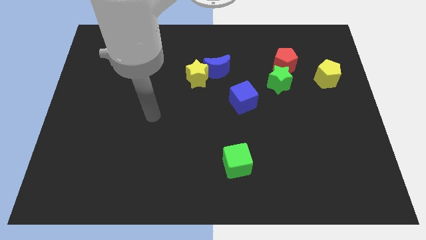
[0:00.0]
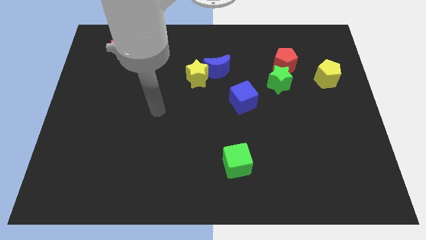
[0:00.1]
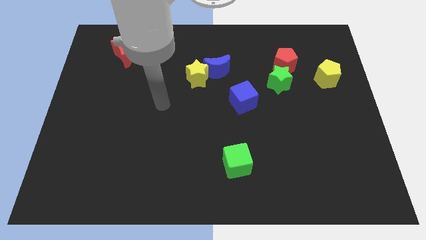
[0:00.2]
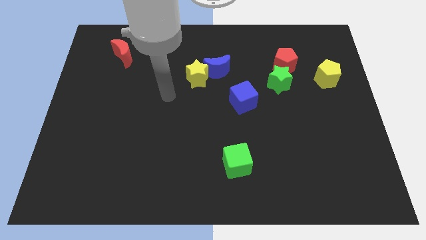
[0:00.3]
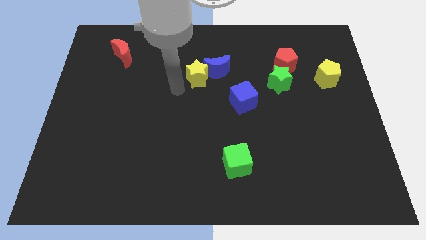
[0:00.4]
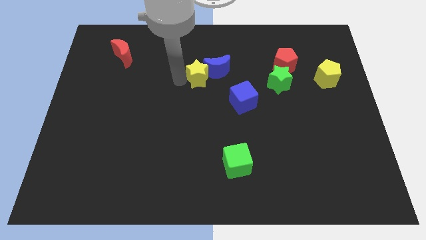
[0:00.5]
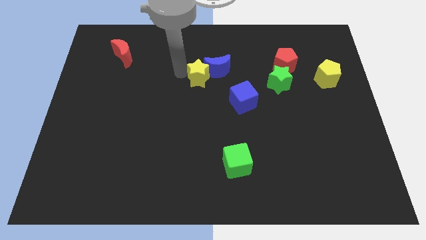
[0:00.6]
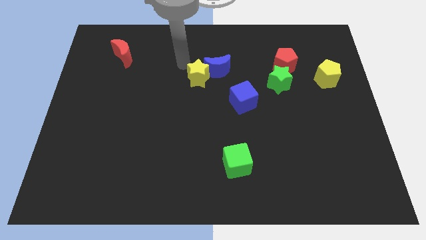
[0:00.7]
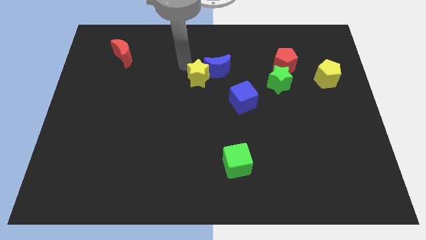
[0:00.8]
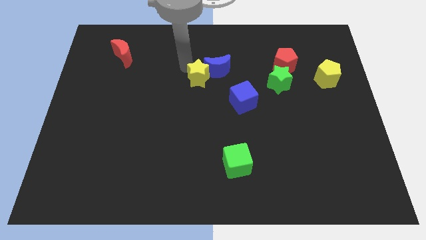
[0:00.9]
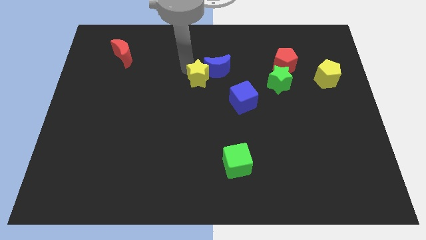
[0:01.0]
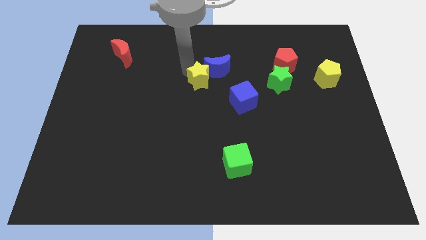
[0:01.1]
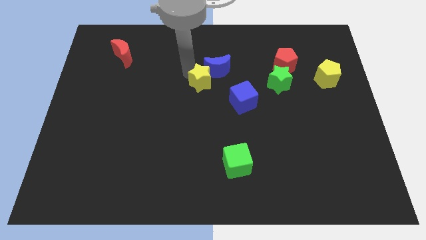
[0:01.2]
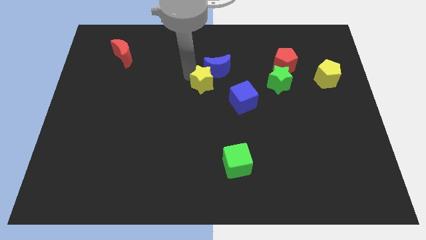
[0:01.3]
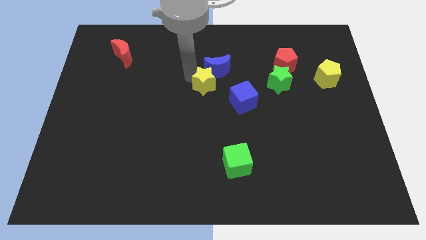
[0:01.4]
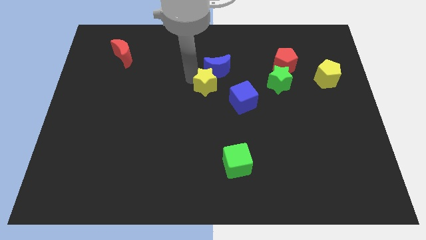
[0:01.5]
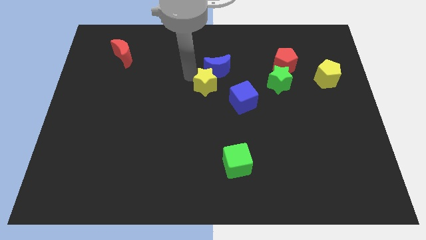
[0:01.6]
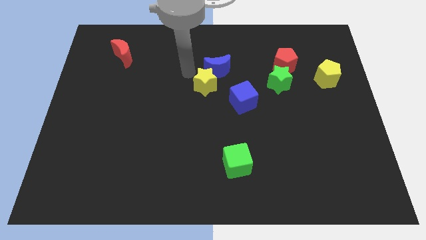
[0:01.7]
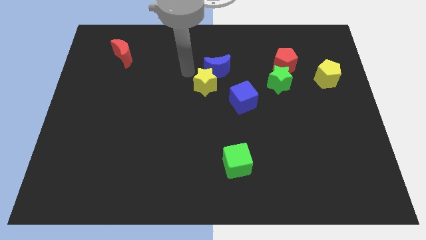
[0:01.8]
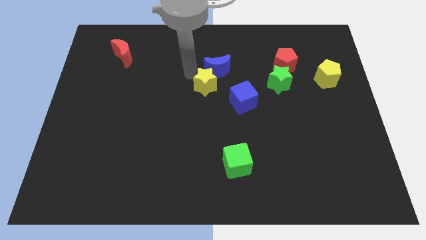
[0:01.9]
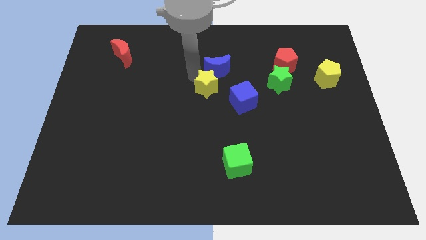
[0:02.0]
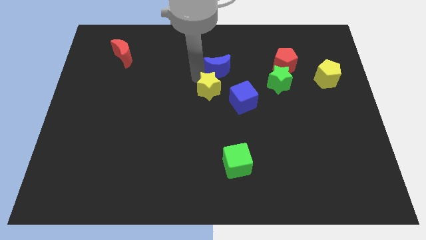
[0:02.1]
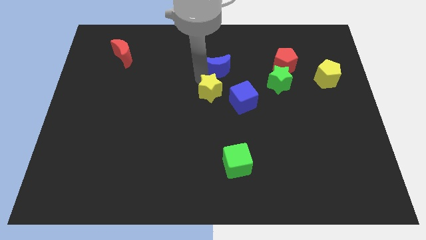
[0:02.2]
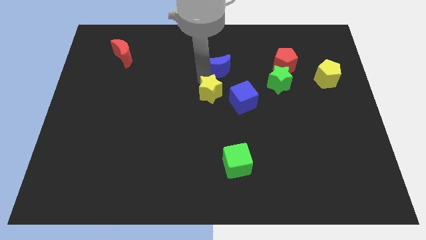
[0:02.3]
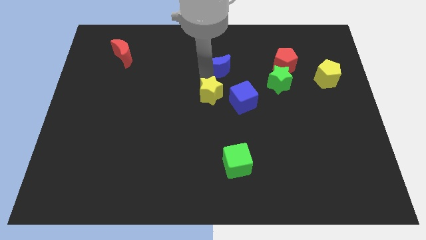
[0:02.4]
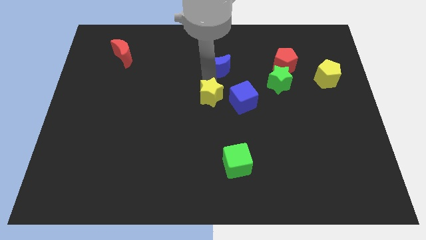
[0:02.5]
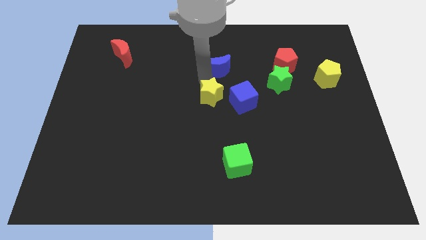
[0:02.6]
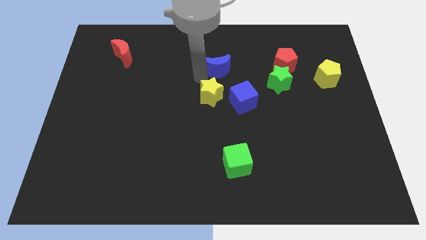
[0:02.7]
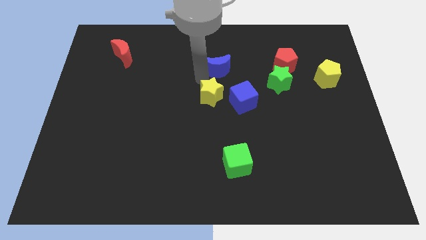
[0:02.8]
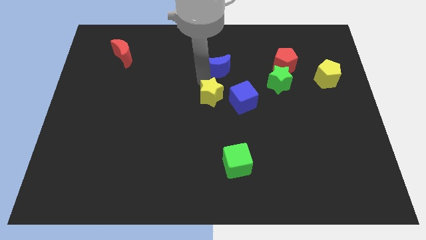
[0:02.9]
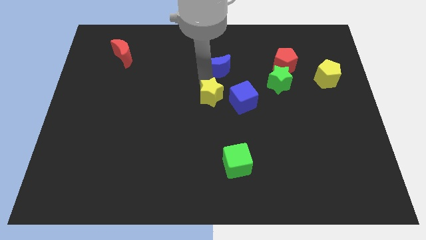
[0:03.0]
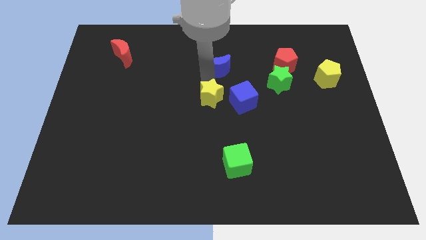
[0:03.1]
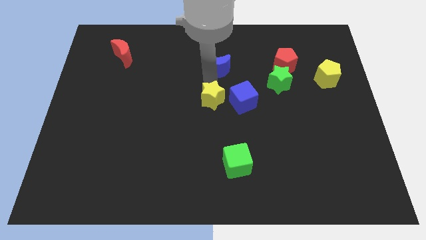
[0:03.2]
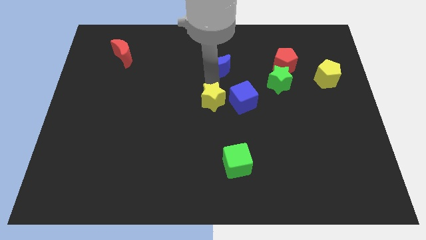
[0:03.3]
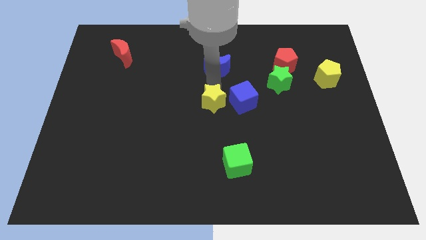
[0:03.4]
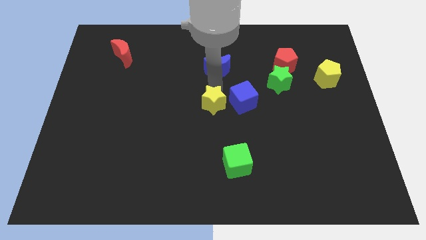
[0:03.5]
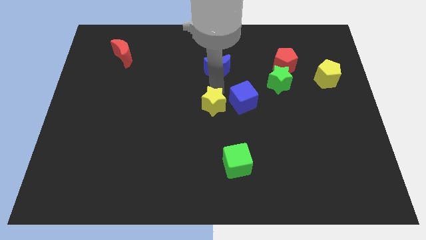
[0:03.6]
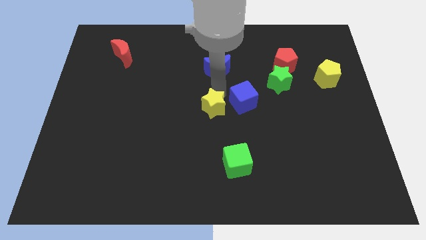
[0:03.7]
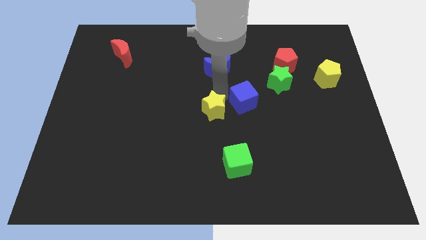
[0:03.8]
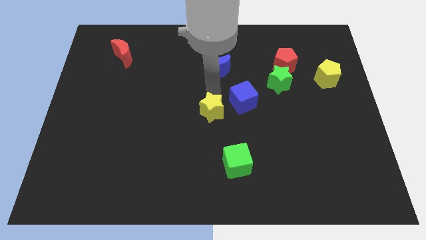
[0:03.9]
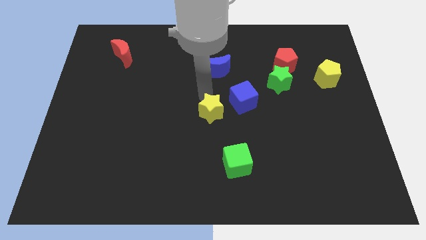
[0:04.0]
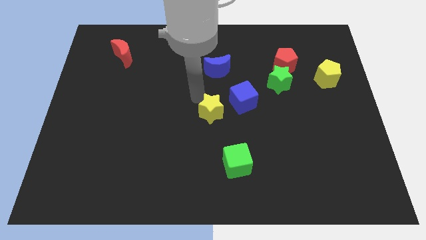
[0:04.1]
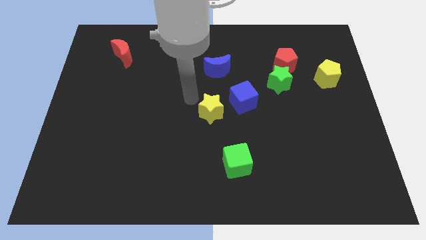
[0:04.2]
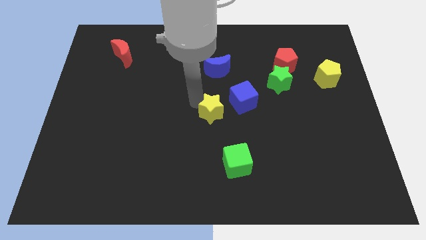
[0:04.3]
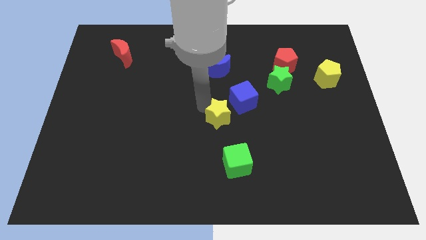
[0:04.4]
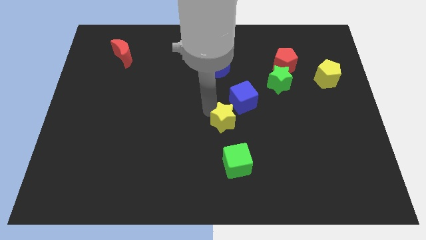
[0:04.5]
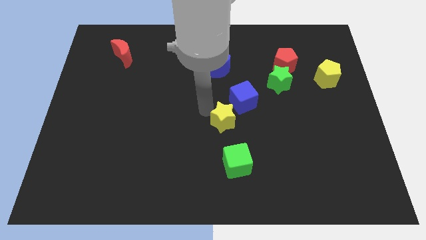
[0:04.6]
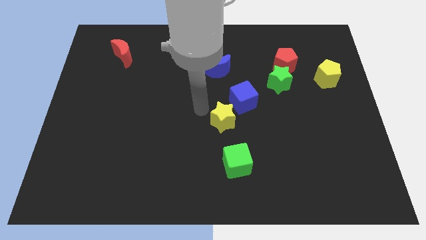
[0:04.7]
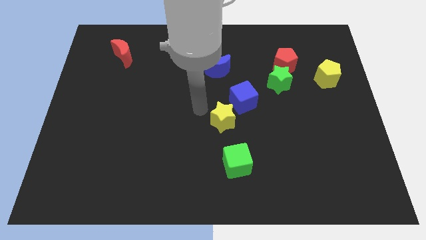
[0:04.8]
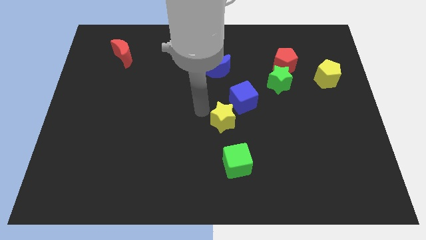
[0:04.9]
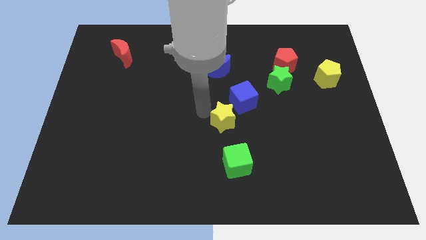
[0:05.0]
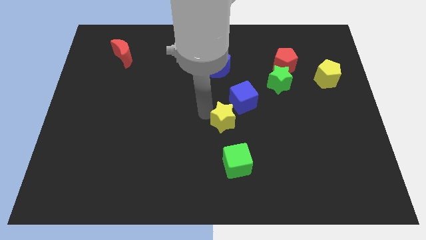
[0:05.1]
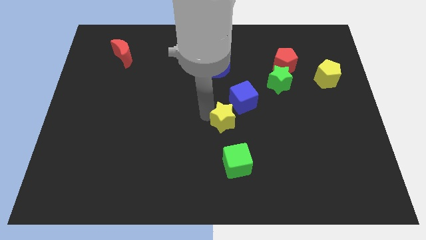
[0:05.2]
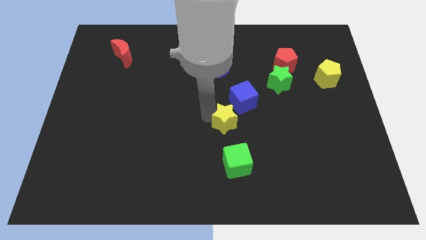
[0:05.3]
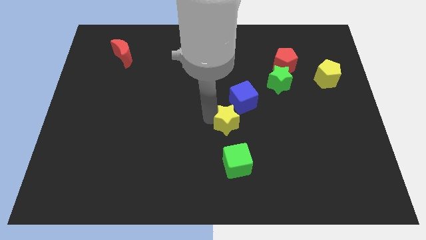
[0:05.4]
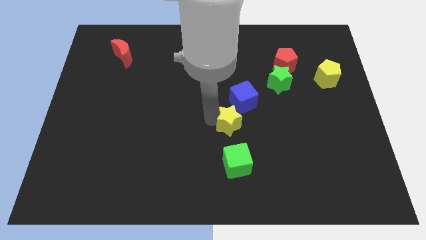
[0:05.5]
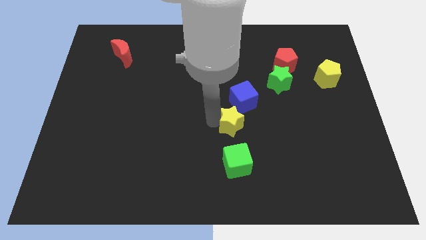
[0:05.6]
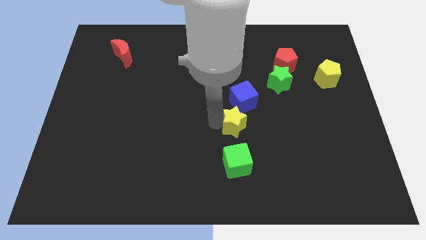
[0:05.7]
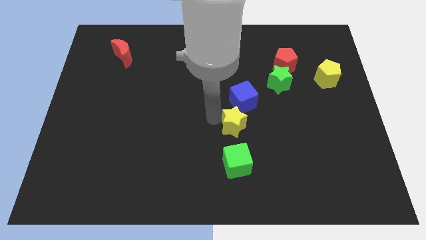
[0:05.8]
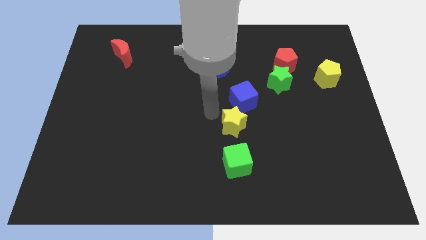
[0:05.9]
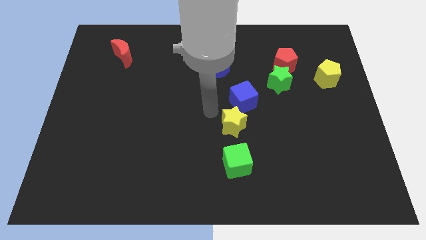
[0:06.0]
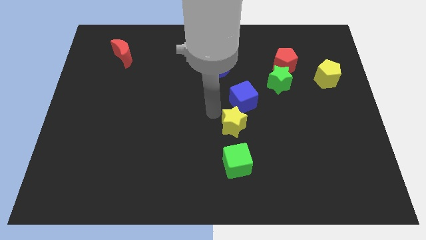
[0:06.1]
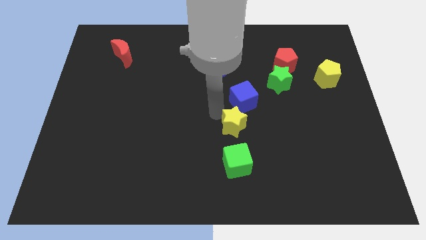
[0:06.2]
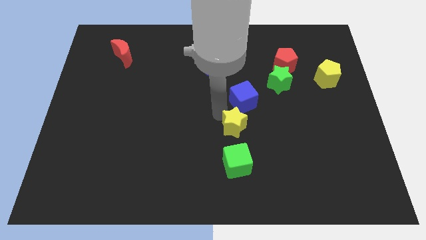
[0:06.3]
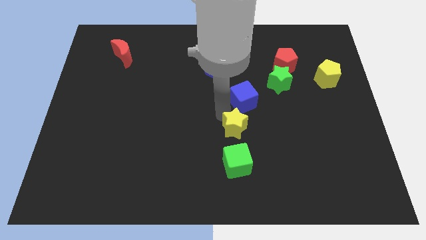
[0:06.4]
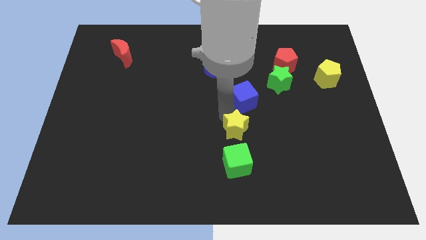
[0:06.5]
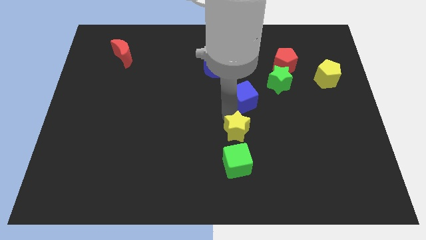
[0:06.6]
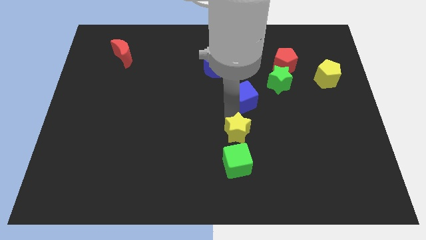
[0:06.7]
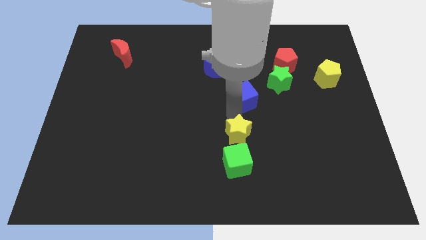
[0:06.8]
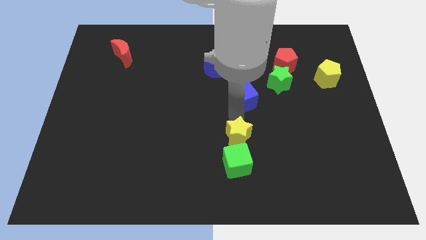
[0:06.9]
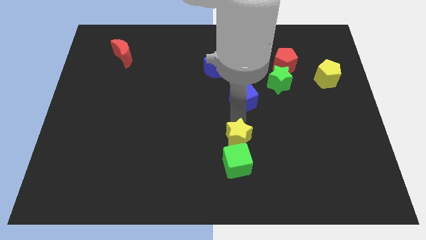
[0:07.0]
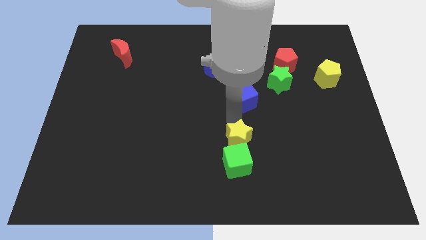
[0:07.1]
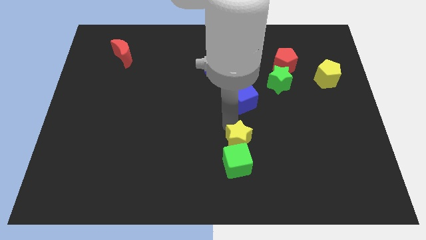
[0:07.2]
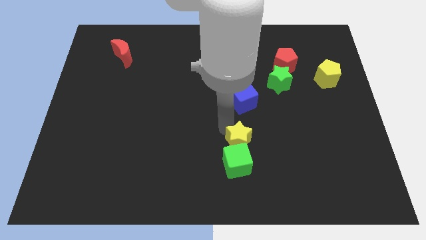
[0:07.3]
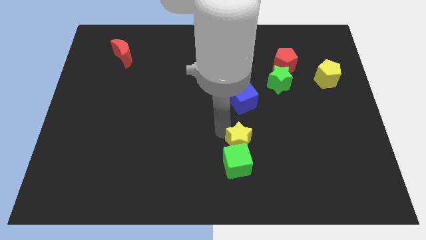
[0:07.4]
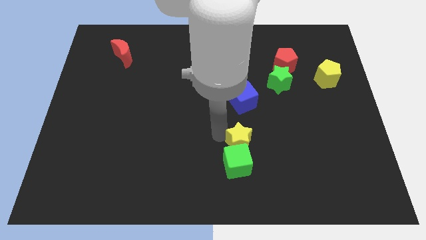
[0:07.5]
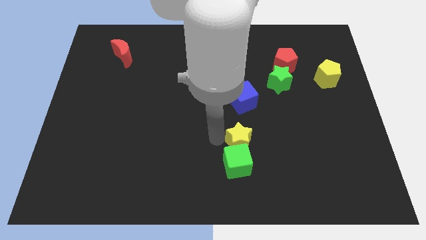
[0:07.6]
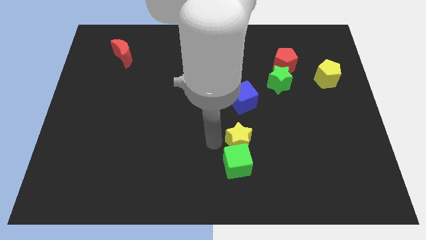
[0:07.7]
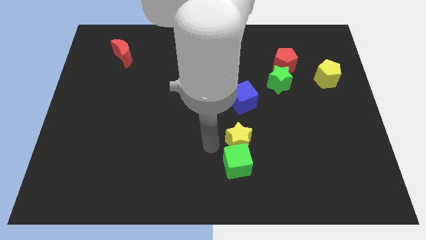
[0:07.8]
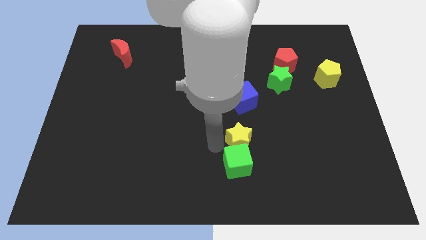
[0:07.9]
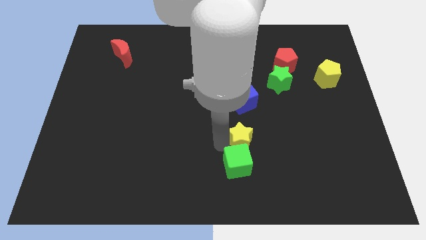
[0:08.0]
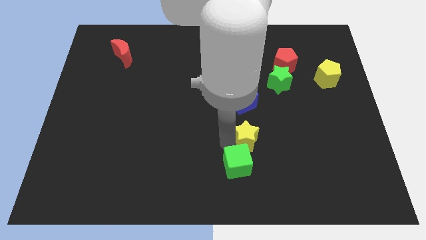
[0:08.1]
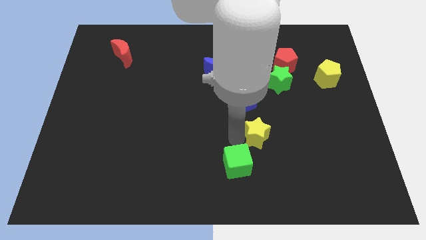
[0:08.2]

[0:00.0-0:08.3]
push the yellow star down and to the right

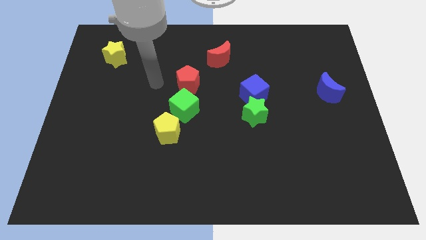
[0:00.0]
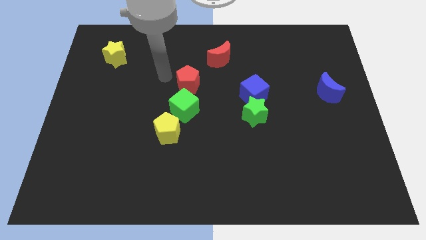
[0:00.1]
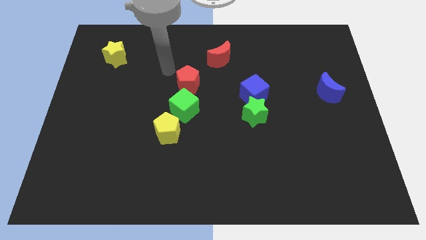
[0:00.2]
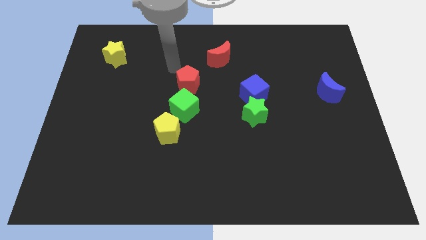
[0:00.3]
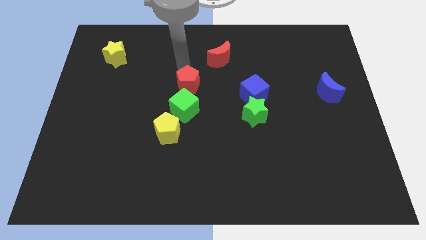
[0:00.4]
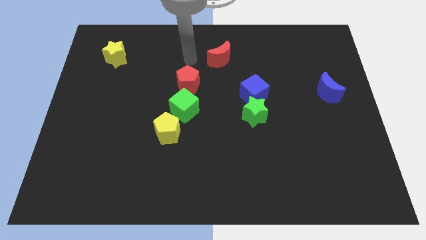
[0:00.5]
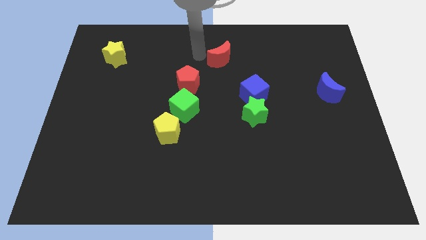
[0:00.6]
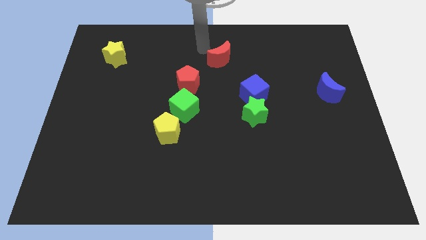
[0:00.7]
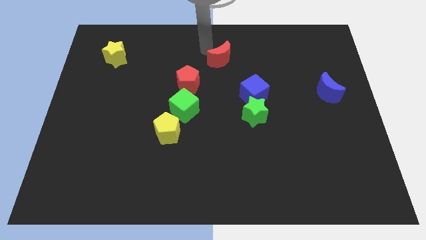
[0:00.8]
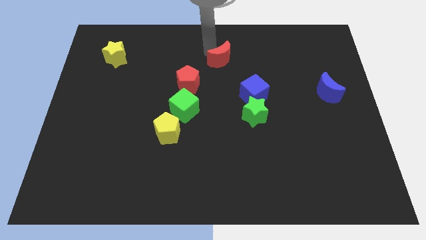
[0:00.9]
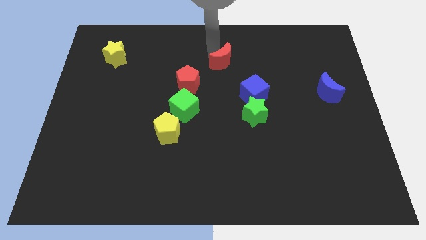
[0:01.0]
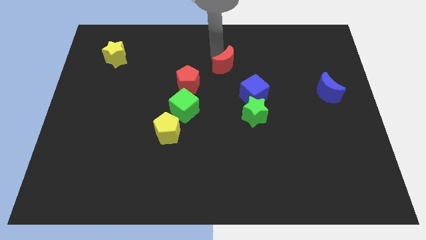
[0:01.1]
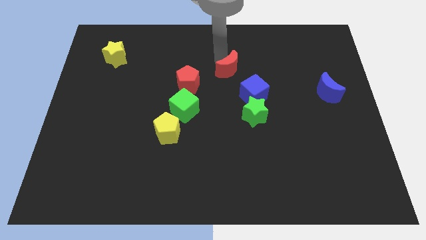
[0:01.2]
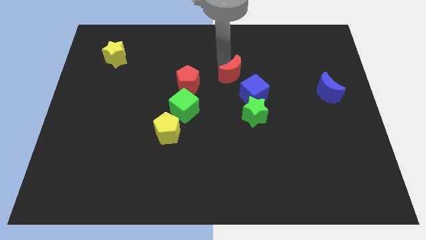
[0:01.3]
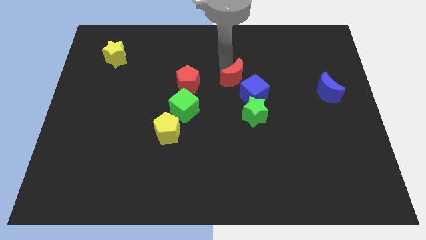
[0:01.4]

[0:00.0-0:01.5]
move the red moon diagonally down and to the right a bit
